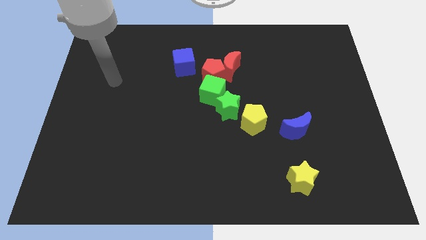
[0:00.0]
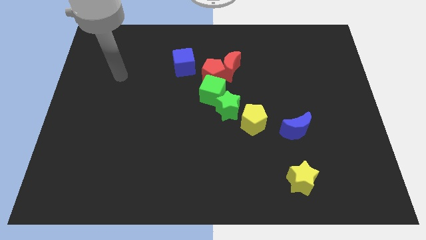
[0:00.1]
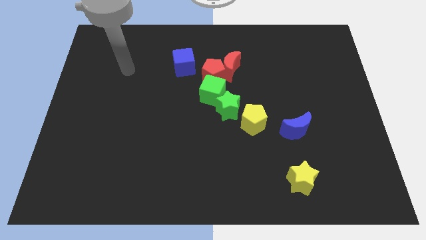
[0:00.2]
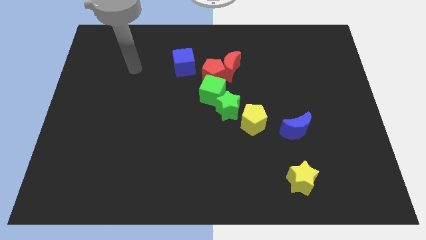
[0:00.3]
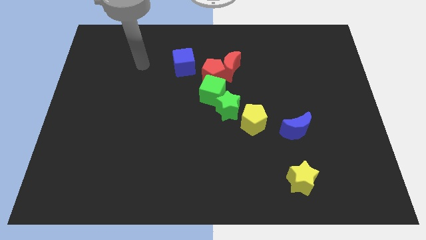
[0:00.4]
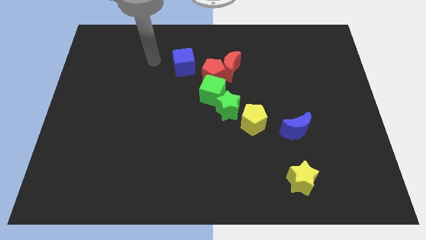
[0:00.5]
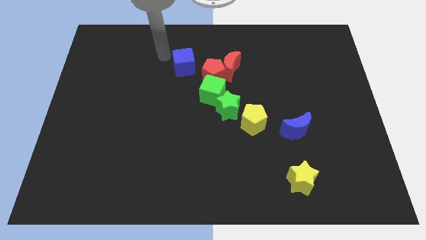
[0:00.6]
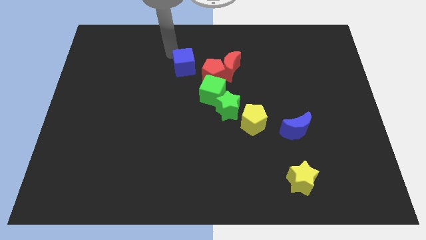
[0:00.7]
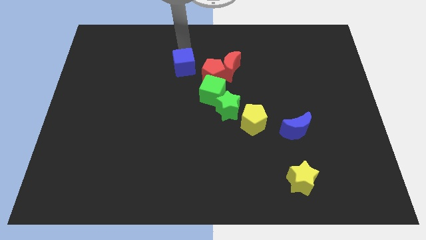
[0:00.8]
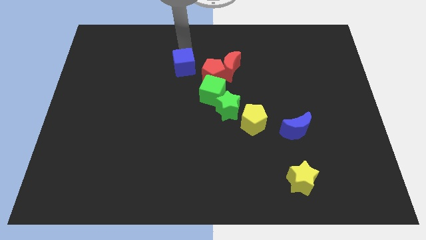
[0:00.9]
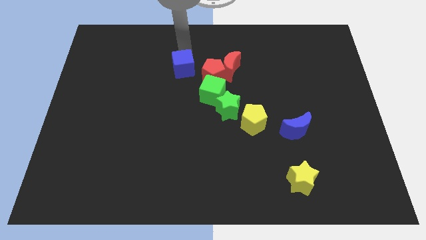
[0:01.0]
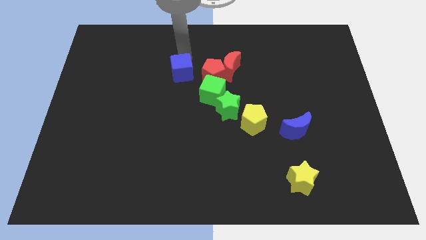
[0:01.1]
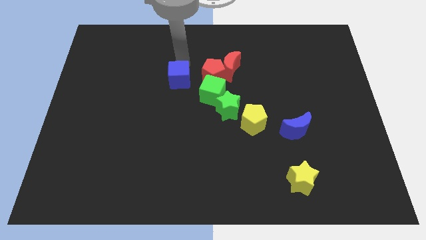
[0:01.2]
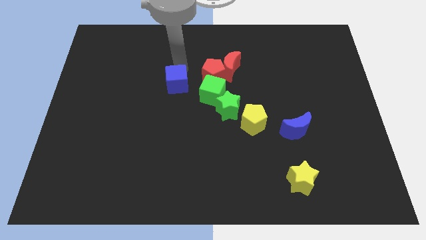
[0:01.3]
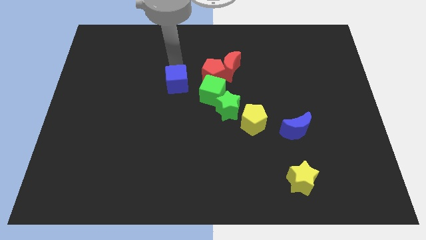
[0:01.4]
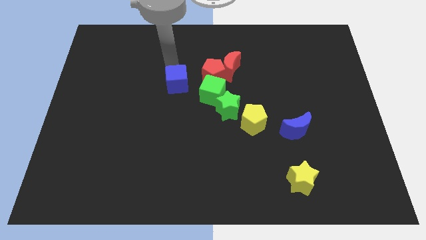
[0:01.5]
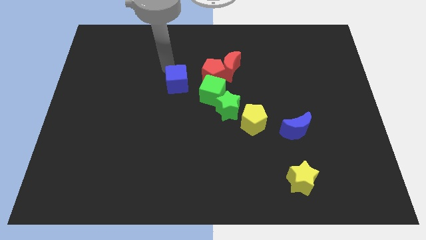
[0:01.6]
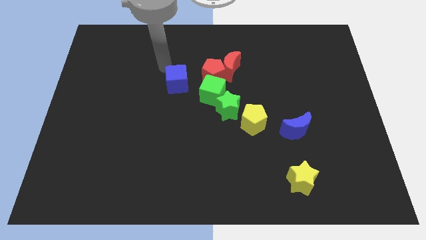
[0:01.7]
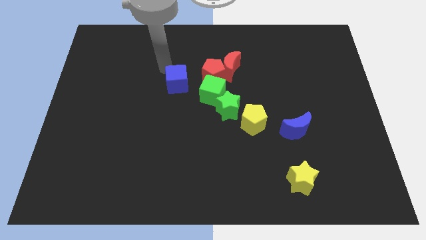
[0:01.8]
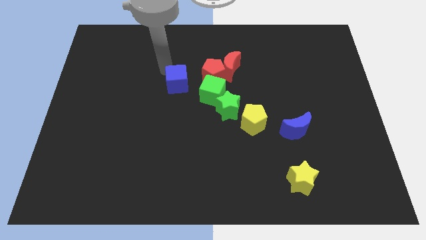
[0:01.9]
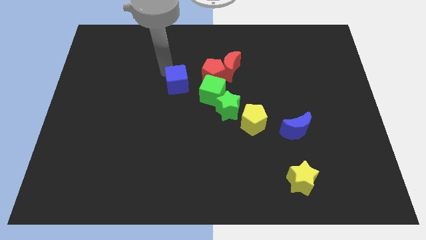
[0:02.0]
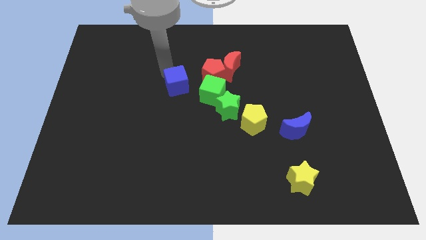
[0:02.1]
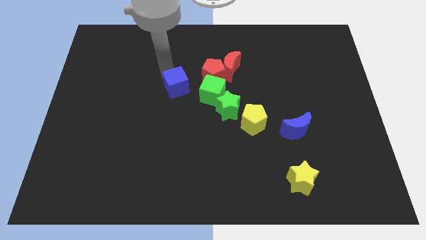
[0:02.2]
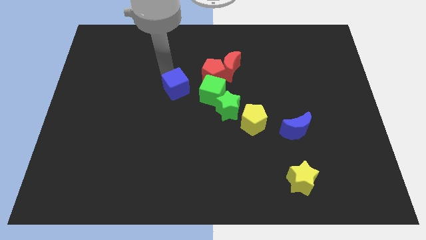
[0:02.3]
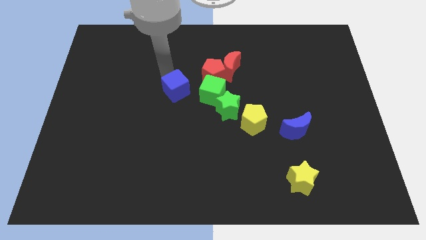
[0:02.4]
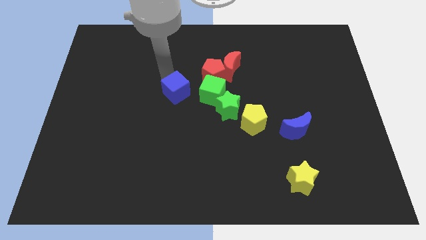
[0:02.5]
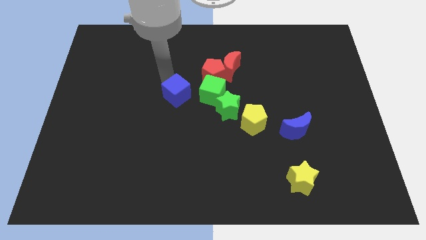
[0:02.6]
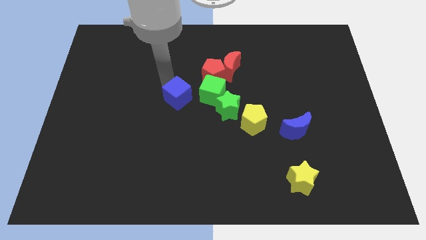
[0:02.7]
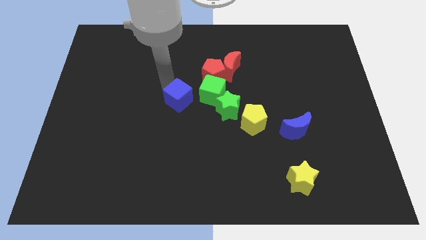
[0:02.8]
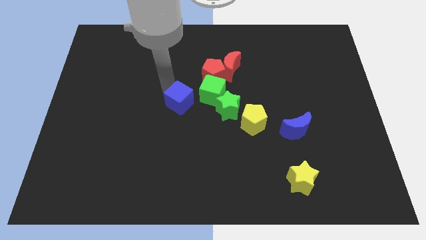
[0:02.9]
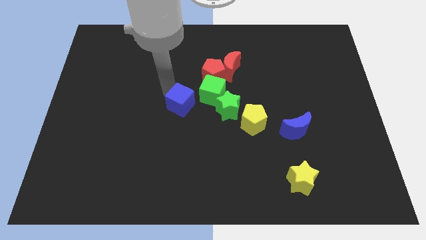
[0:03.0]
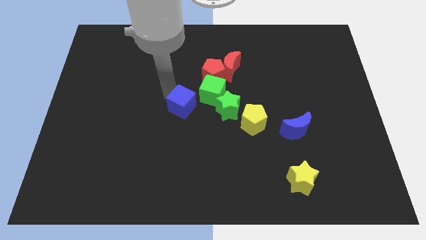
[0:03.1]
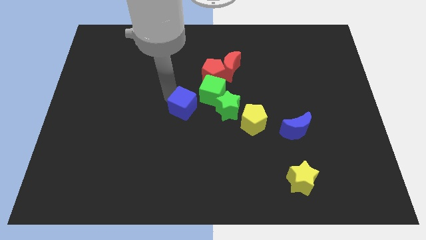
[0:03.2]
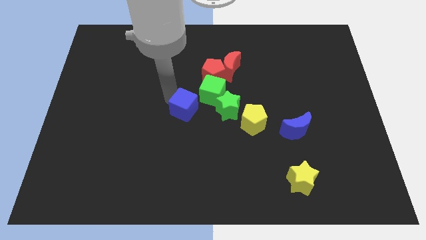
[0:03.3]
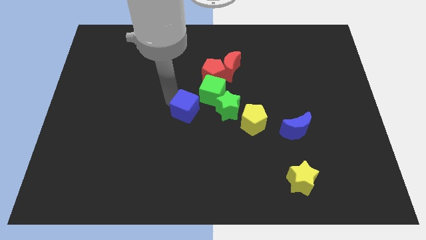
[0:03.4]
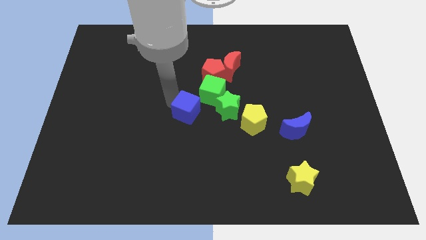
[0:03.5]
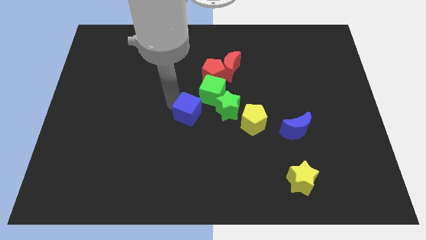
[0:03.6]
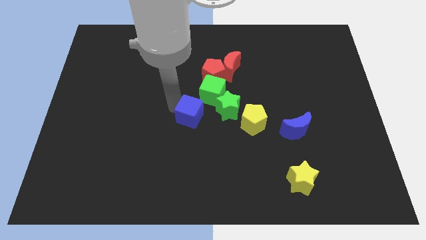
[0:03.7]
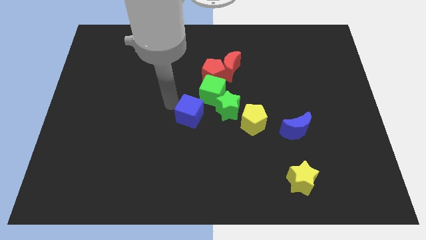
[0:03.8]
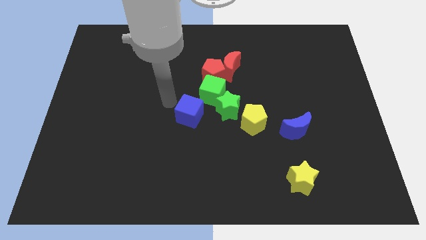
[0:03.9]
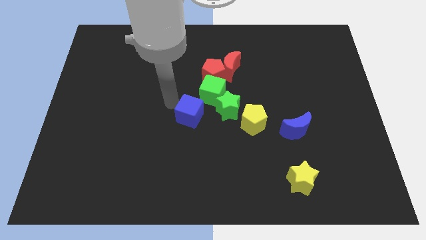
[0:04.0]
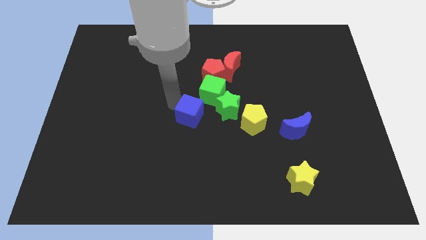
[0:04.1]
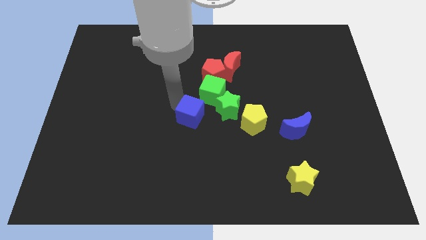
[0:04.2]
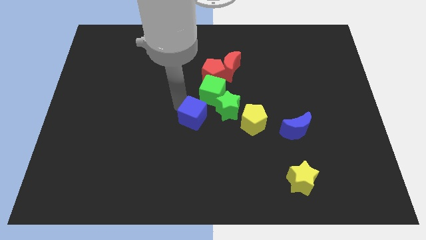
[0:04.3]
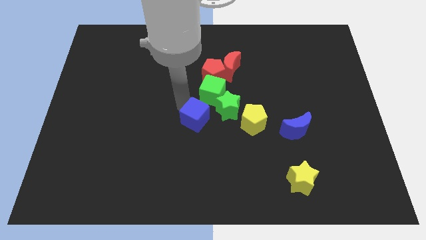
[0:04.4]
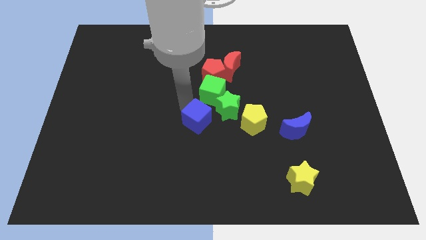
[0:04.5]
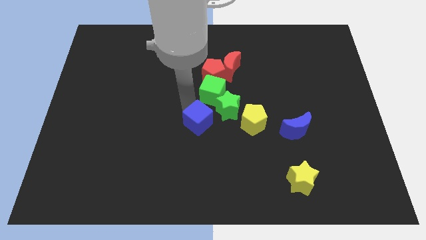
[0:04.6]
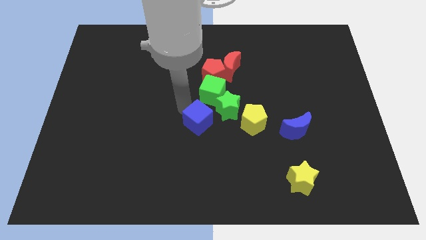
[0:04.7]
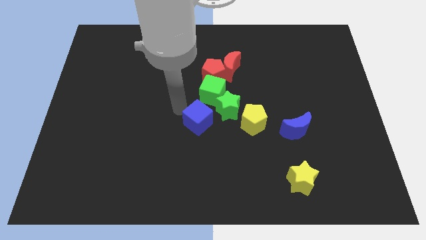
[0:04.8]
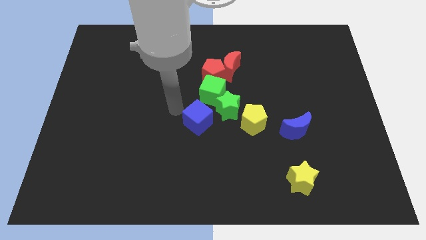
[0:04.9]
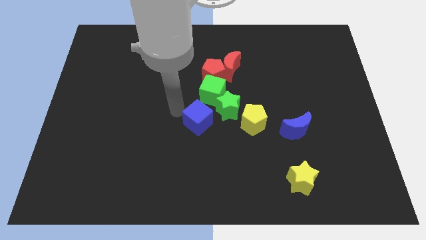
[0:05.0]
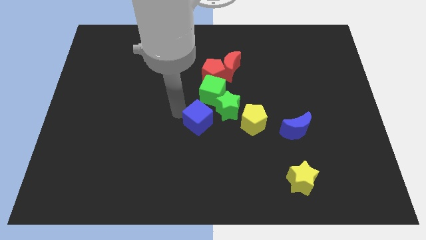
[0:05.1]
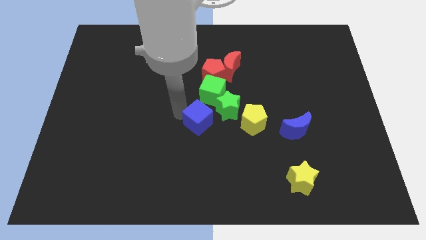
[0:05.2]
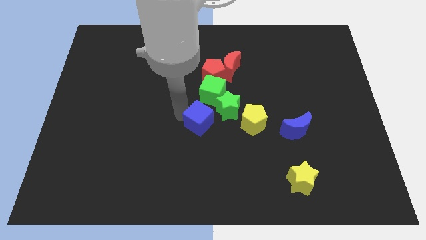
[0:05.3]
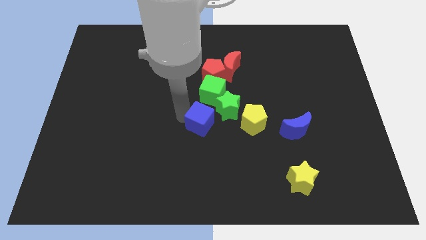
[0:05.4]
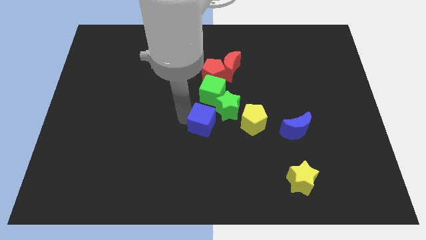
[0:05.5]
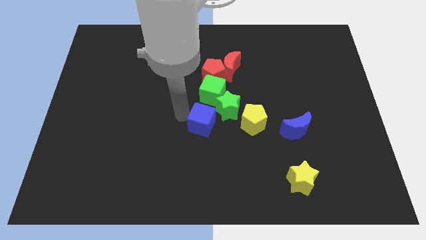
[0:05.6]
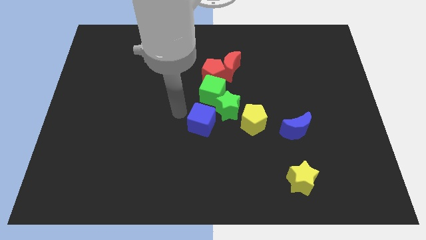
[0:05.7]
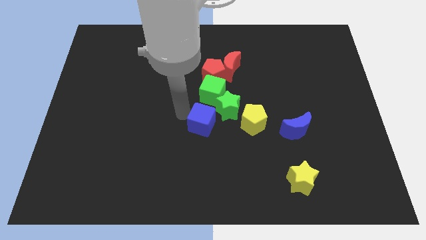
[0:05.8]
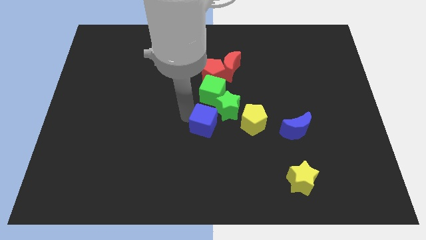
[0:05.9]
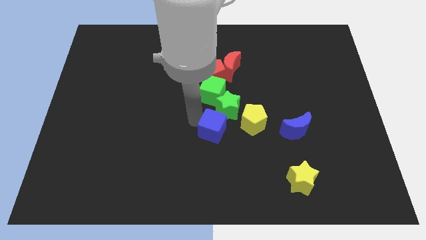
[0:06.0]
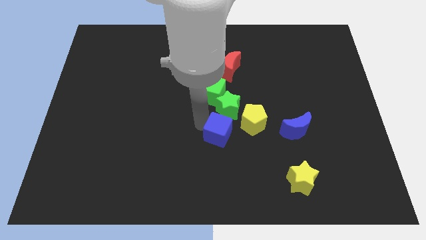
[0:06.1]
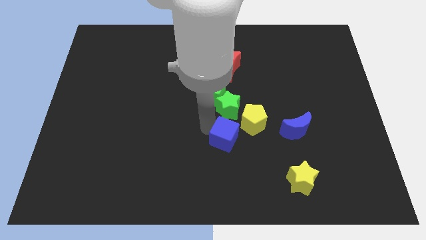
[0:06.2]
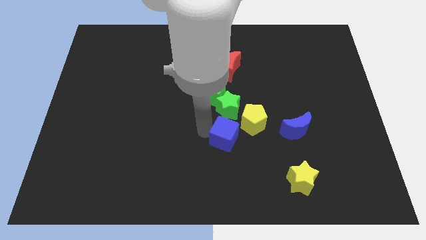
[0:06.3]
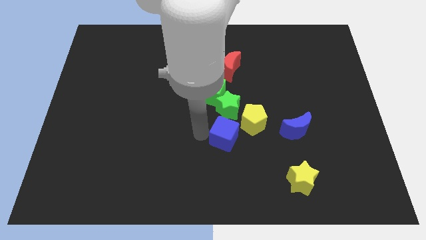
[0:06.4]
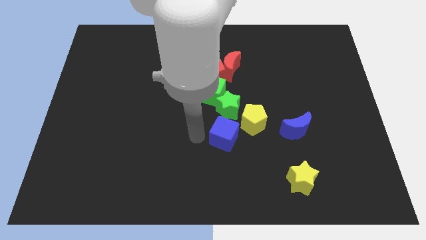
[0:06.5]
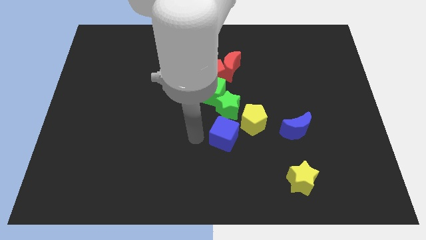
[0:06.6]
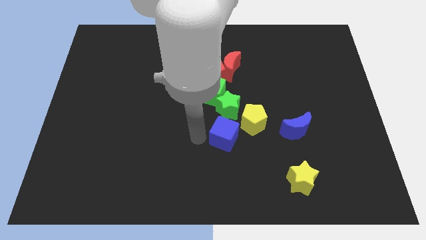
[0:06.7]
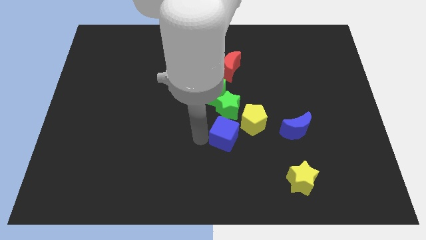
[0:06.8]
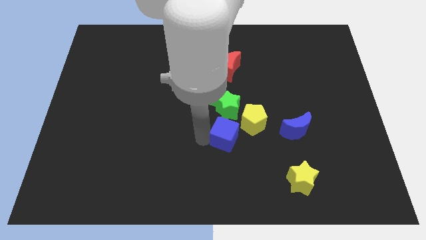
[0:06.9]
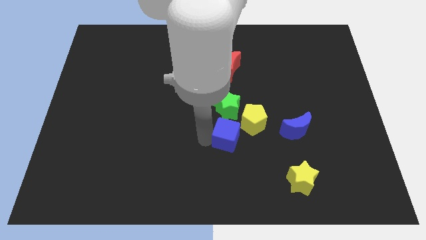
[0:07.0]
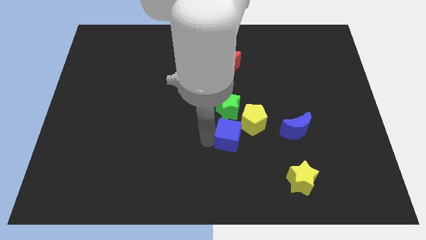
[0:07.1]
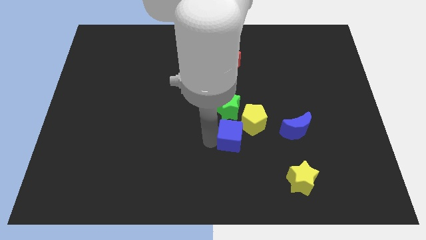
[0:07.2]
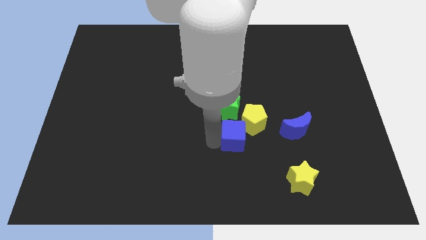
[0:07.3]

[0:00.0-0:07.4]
slide the blue cube diagonally down and to the right of the green star
